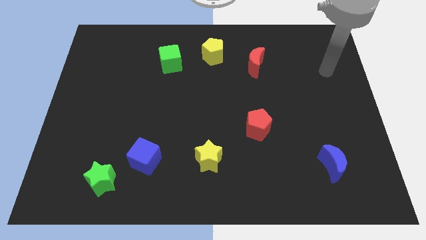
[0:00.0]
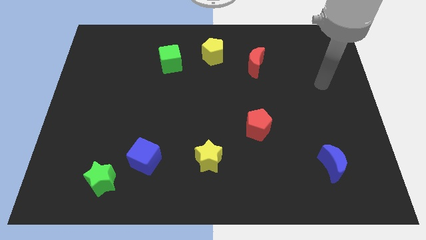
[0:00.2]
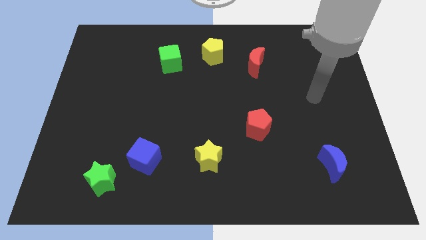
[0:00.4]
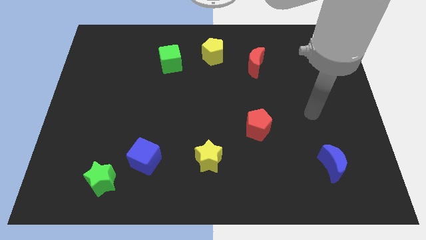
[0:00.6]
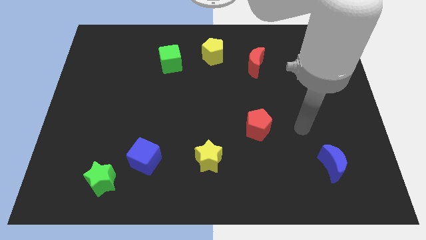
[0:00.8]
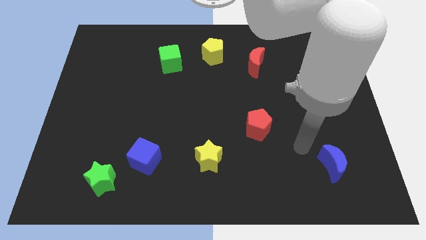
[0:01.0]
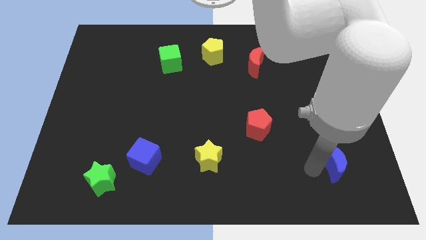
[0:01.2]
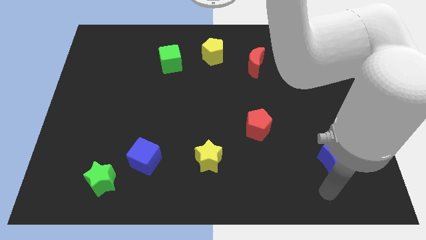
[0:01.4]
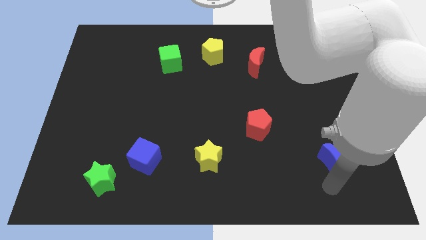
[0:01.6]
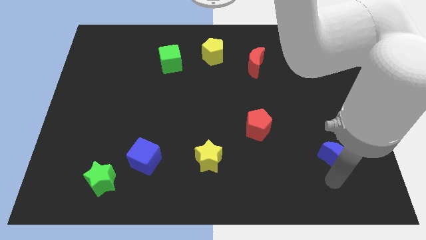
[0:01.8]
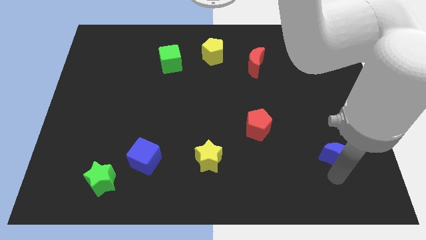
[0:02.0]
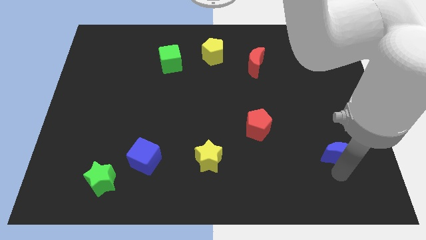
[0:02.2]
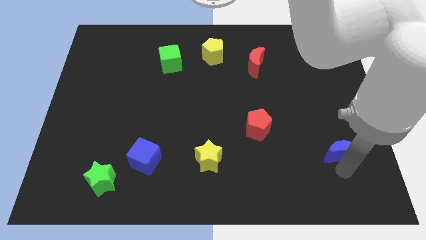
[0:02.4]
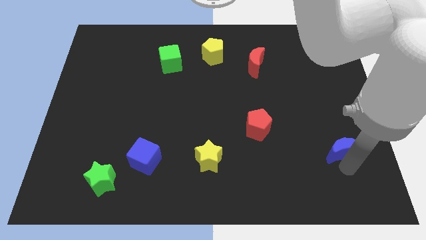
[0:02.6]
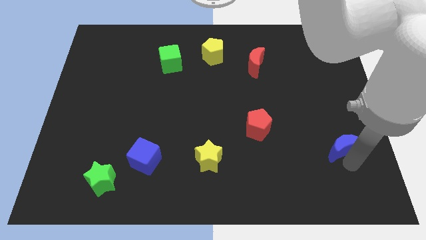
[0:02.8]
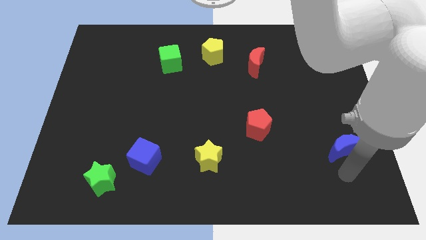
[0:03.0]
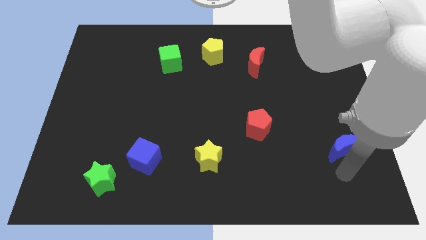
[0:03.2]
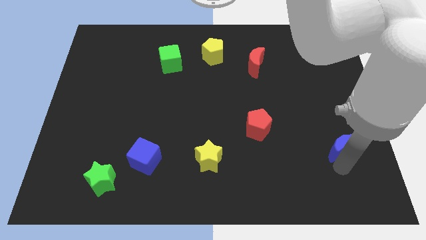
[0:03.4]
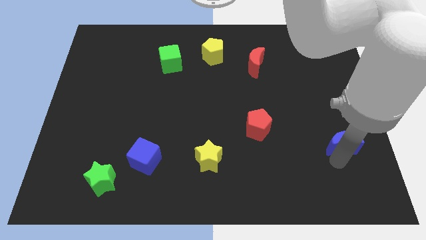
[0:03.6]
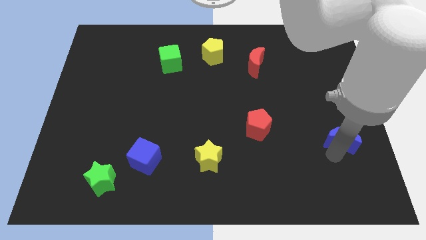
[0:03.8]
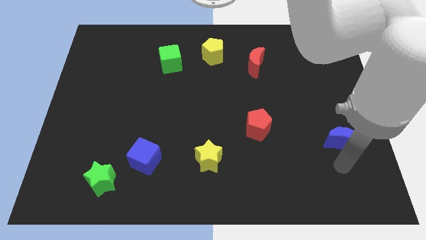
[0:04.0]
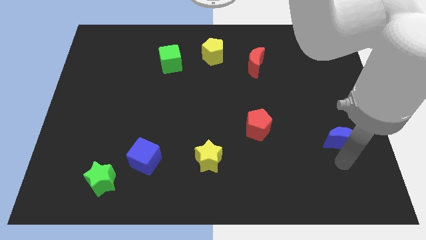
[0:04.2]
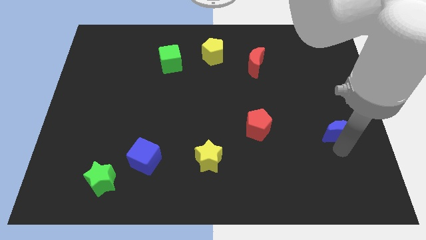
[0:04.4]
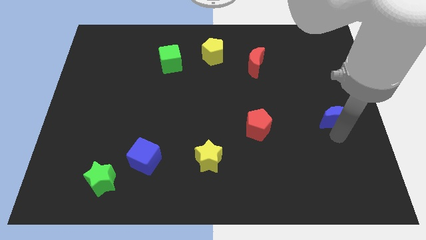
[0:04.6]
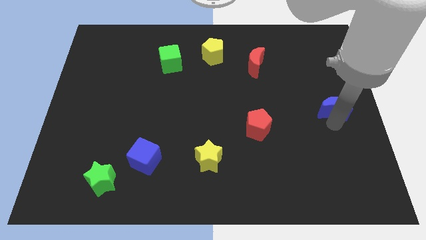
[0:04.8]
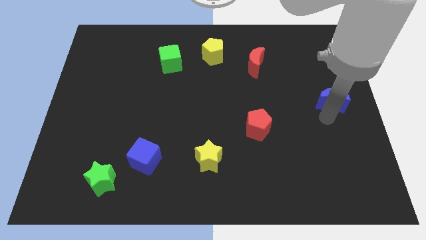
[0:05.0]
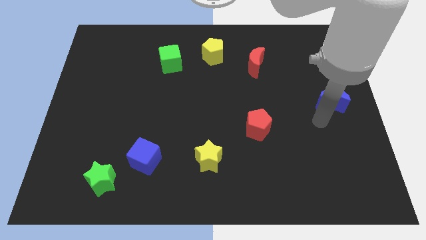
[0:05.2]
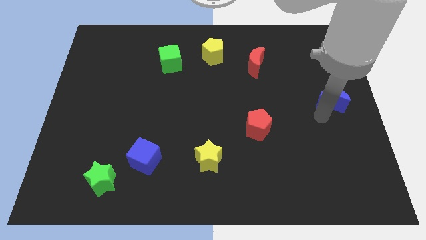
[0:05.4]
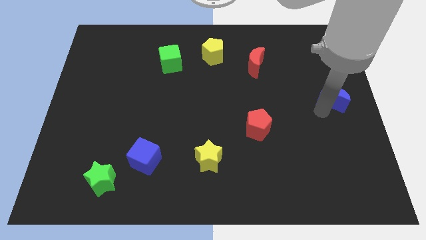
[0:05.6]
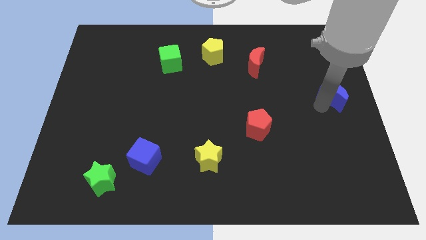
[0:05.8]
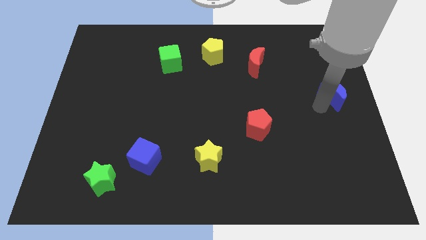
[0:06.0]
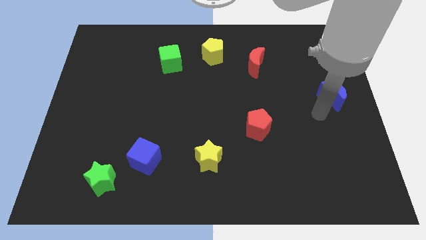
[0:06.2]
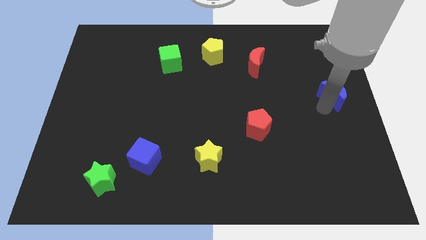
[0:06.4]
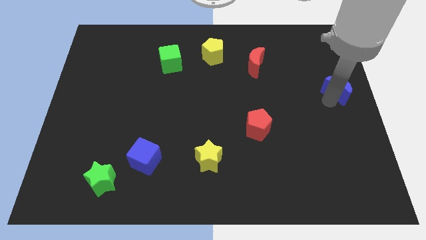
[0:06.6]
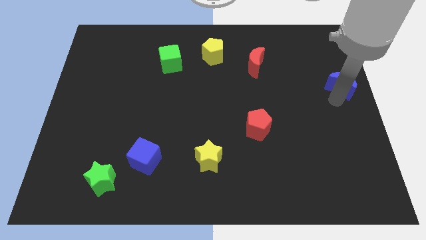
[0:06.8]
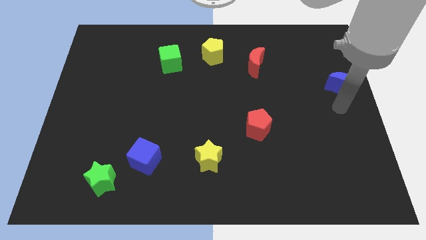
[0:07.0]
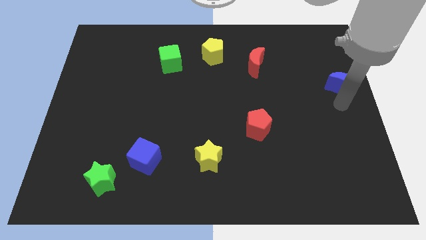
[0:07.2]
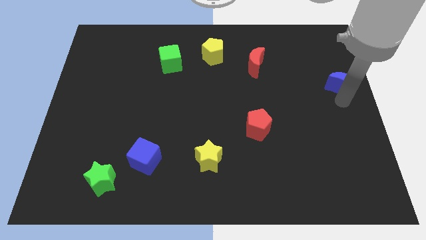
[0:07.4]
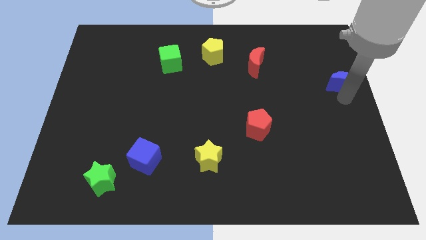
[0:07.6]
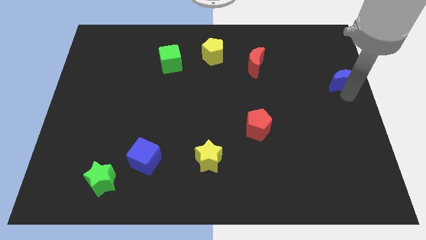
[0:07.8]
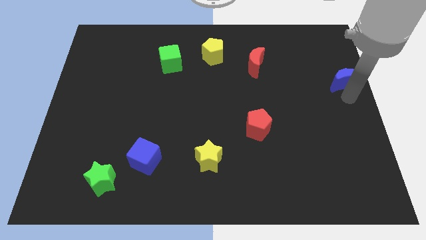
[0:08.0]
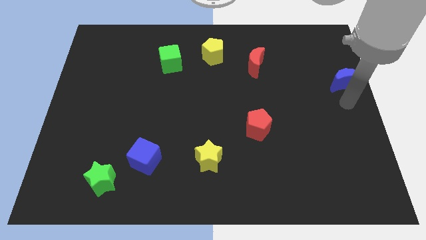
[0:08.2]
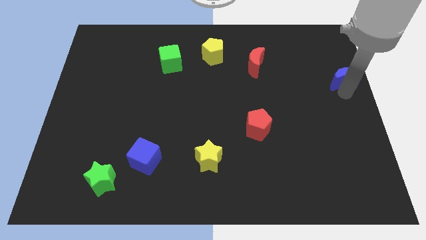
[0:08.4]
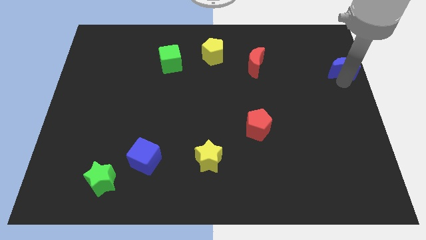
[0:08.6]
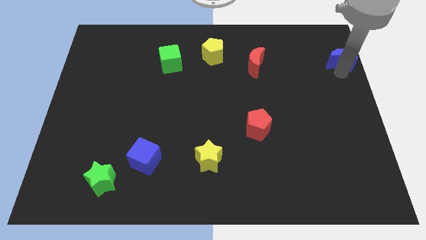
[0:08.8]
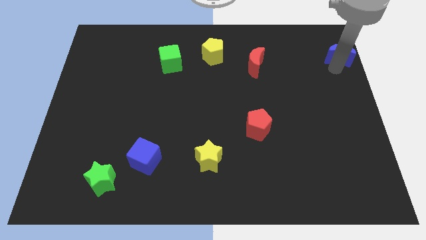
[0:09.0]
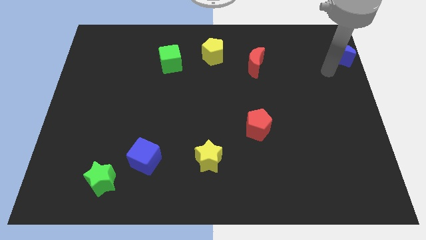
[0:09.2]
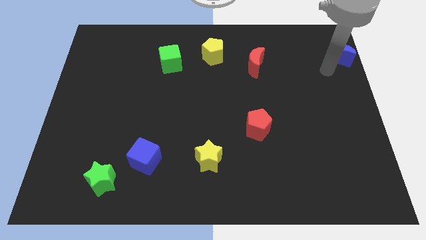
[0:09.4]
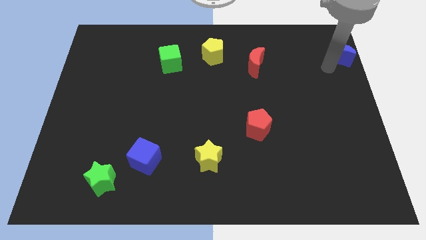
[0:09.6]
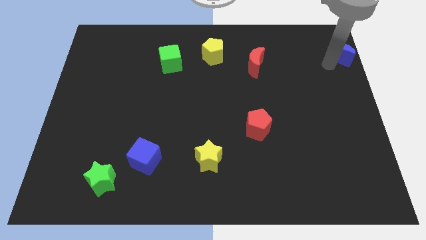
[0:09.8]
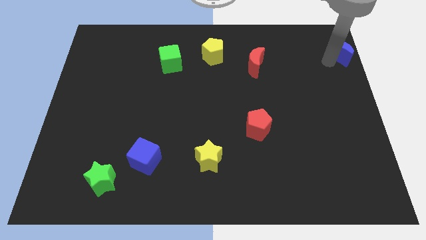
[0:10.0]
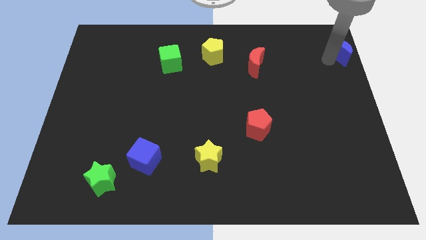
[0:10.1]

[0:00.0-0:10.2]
push the blue moon to the top right corner
